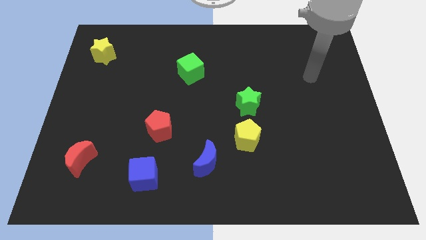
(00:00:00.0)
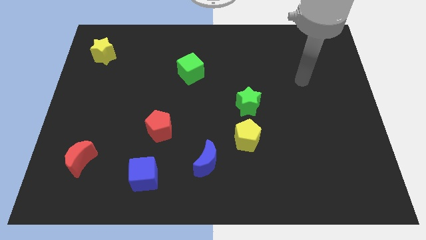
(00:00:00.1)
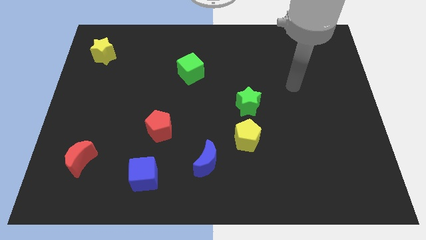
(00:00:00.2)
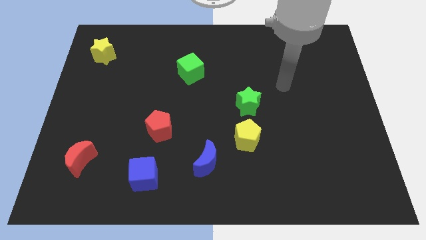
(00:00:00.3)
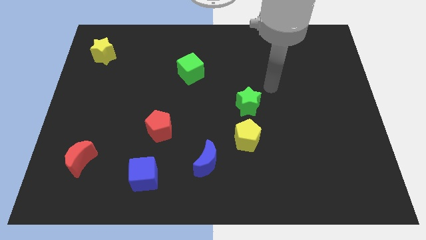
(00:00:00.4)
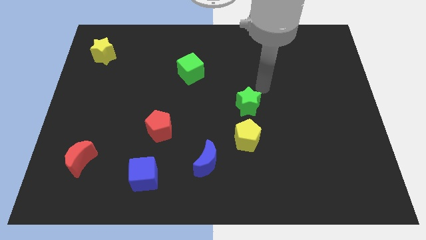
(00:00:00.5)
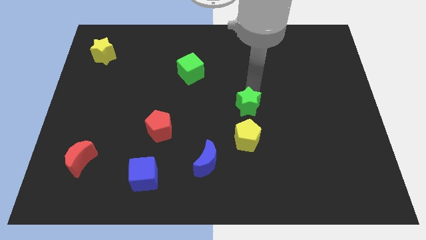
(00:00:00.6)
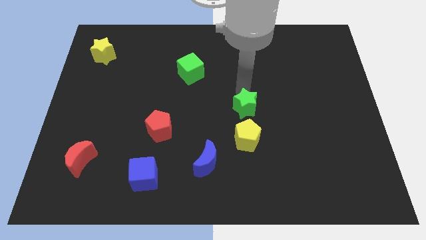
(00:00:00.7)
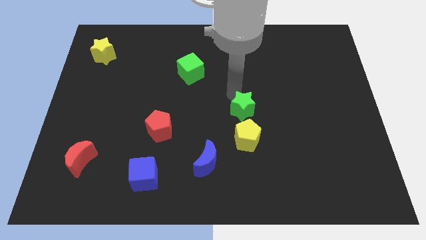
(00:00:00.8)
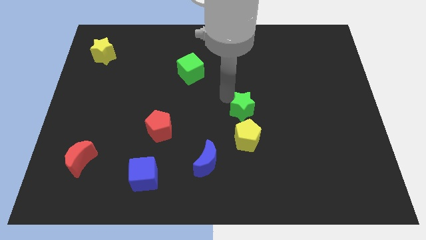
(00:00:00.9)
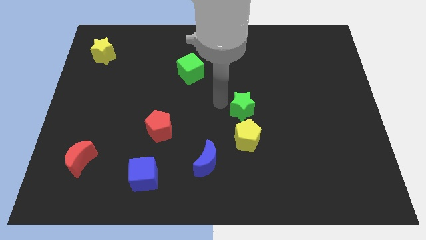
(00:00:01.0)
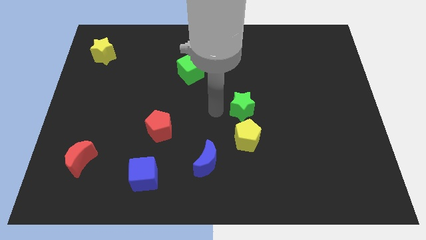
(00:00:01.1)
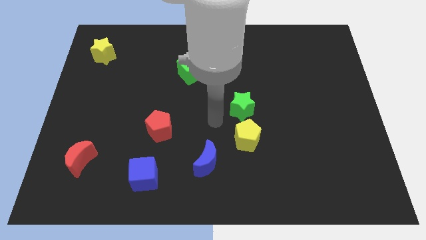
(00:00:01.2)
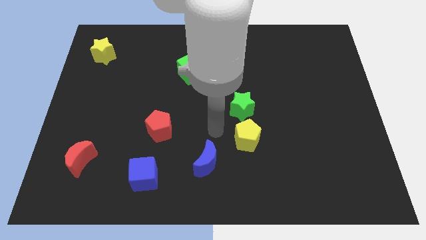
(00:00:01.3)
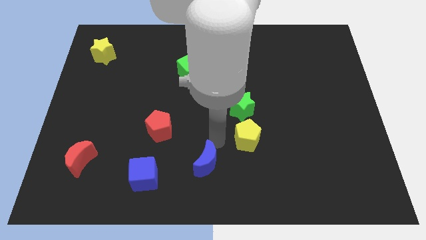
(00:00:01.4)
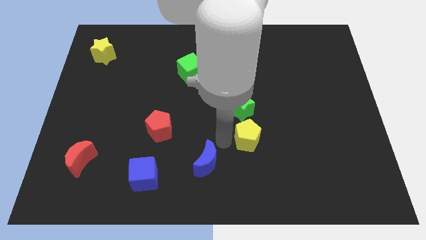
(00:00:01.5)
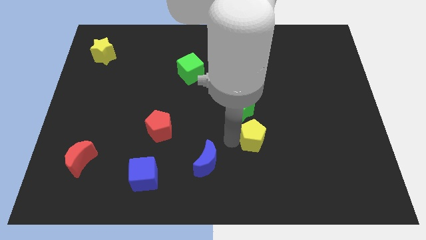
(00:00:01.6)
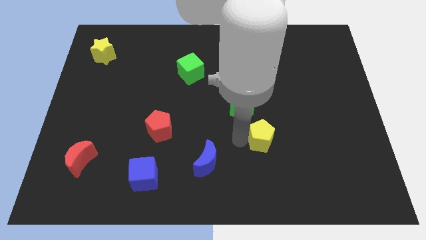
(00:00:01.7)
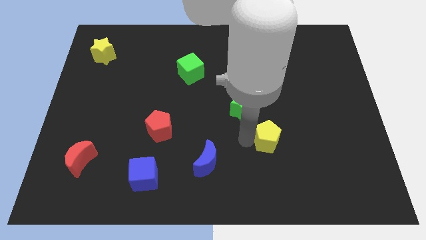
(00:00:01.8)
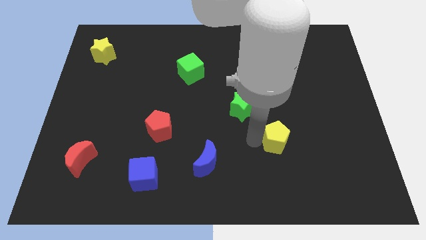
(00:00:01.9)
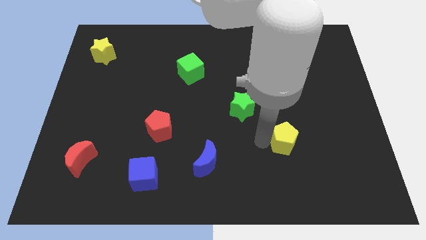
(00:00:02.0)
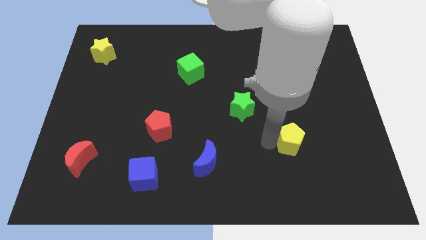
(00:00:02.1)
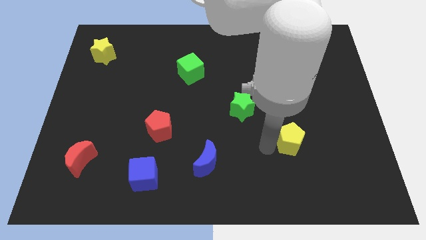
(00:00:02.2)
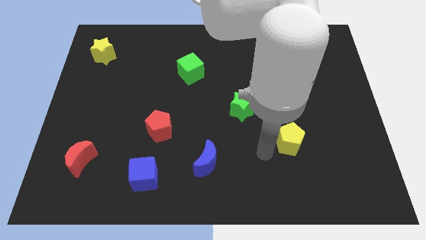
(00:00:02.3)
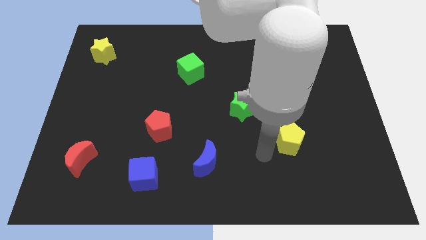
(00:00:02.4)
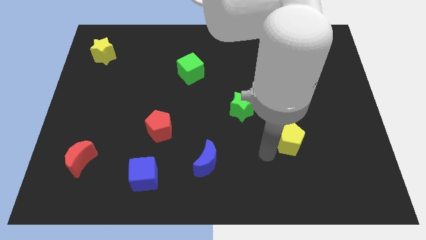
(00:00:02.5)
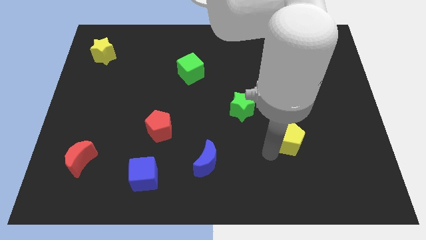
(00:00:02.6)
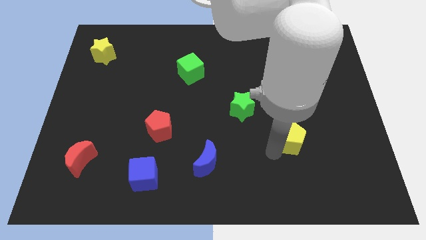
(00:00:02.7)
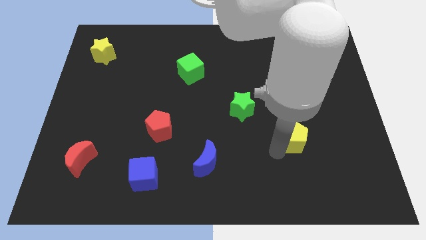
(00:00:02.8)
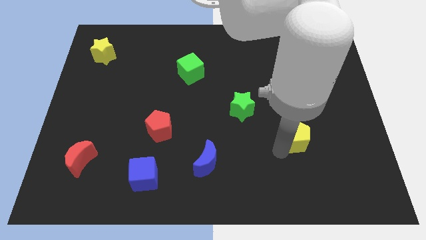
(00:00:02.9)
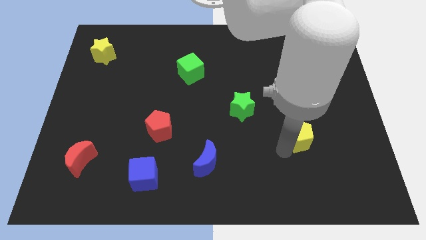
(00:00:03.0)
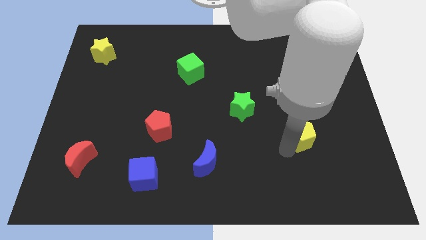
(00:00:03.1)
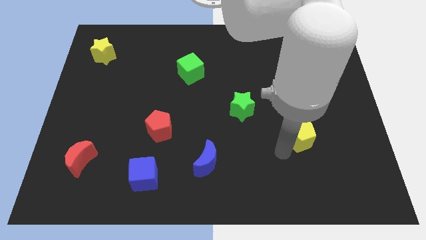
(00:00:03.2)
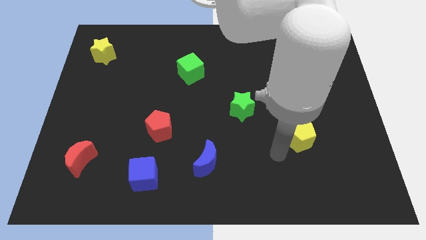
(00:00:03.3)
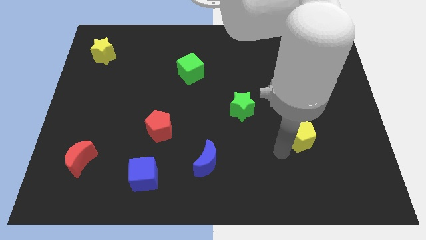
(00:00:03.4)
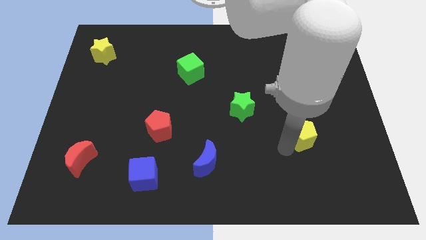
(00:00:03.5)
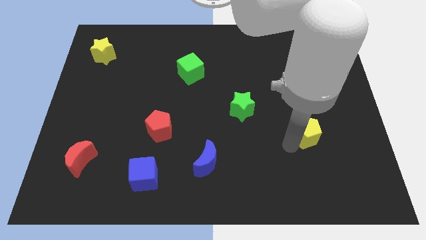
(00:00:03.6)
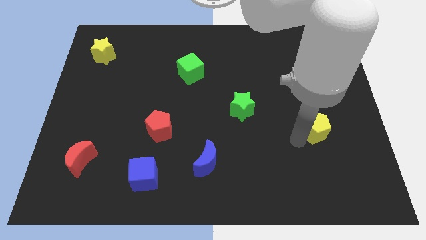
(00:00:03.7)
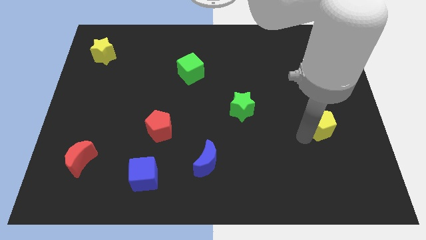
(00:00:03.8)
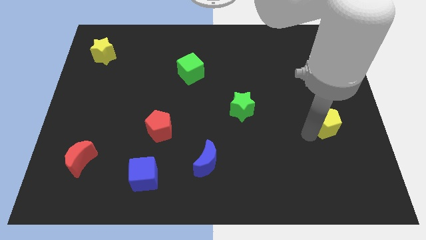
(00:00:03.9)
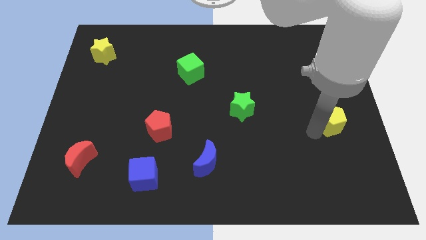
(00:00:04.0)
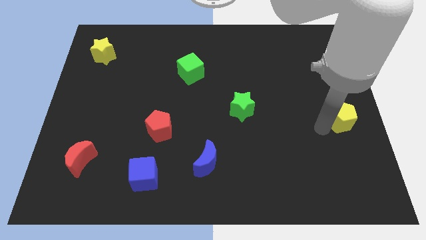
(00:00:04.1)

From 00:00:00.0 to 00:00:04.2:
move the yellow pentagon to the right side

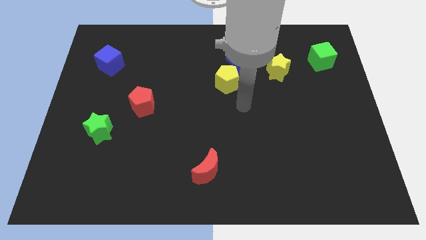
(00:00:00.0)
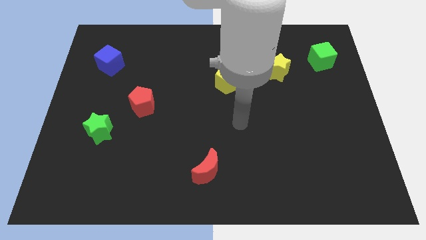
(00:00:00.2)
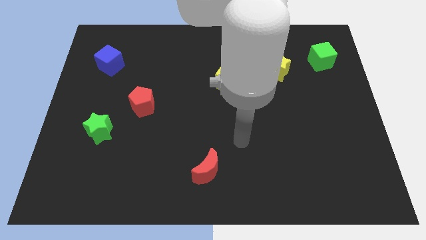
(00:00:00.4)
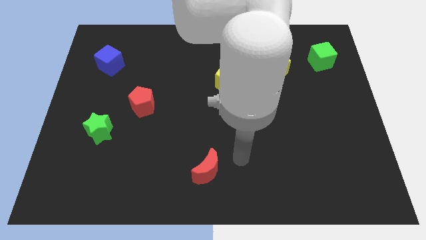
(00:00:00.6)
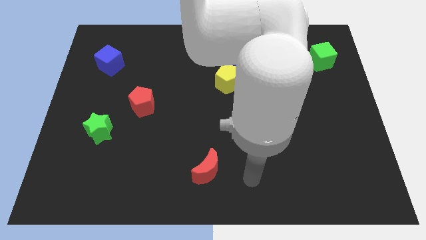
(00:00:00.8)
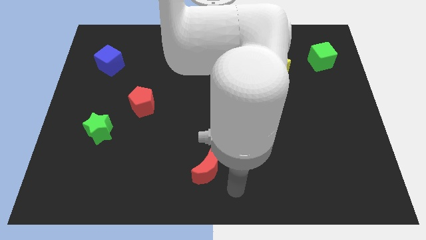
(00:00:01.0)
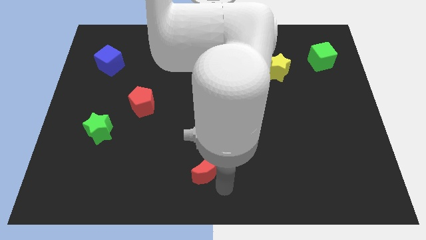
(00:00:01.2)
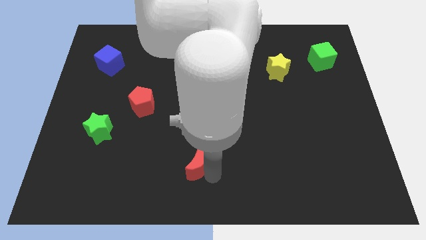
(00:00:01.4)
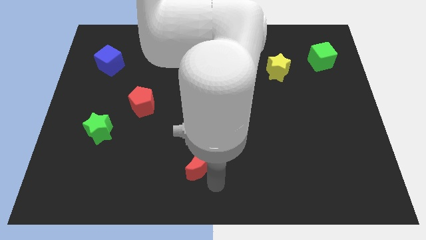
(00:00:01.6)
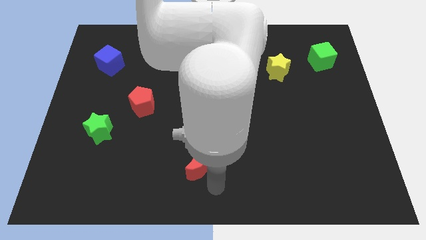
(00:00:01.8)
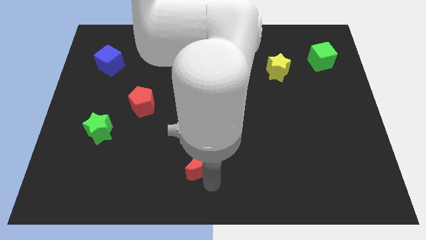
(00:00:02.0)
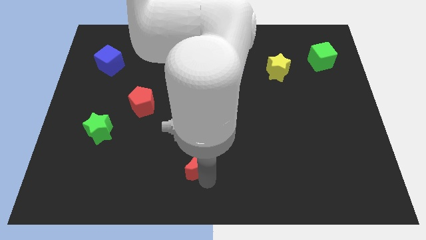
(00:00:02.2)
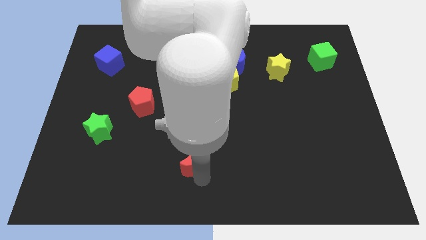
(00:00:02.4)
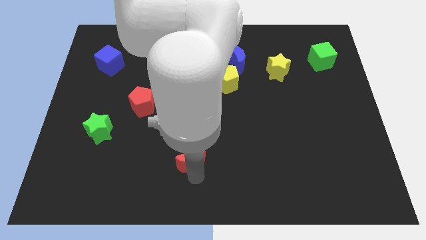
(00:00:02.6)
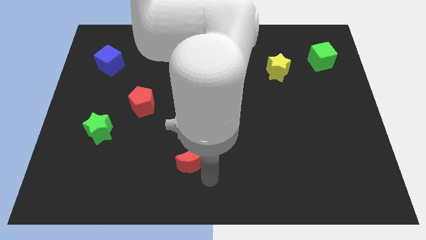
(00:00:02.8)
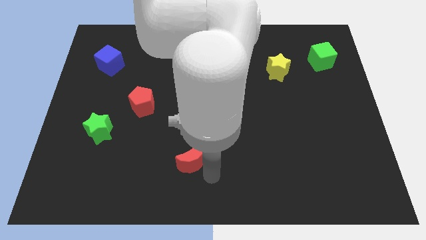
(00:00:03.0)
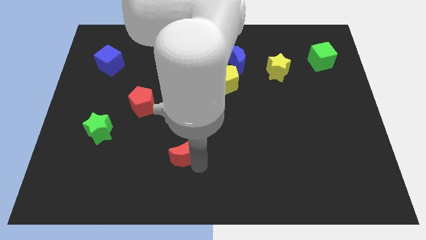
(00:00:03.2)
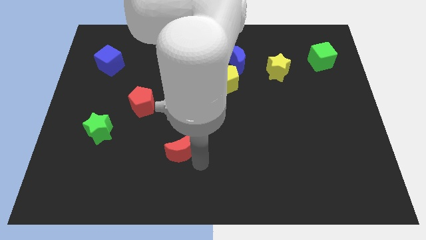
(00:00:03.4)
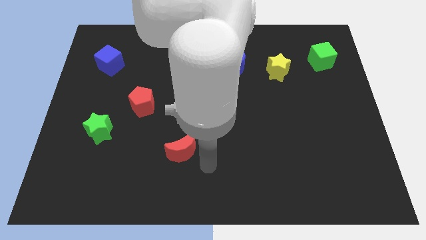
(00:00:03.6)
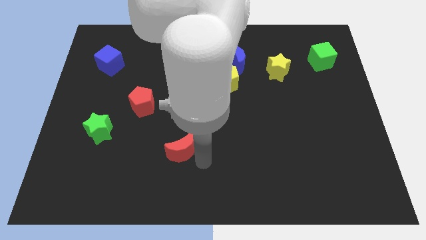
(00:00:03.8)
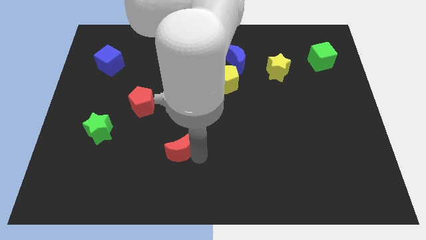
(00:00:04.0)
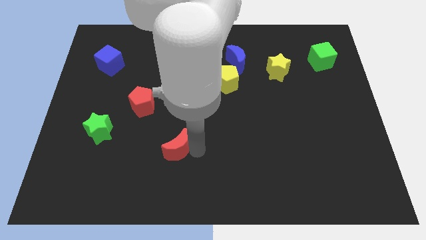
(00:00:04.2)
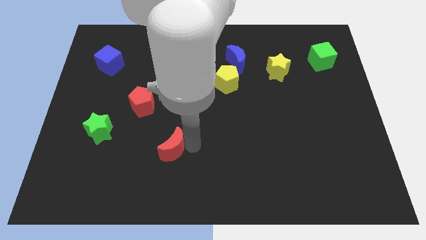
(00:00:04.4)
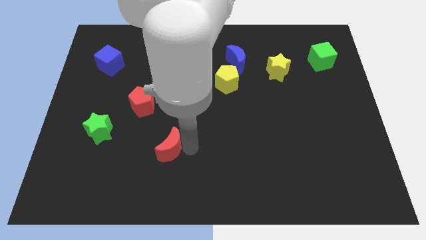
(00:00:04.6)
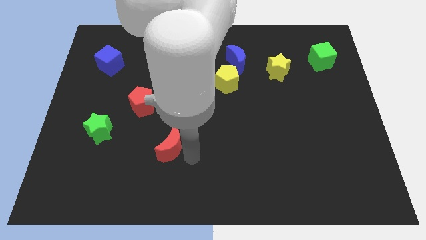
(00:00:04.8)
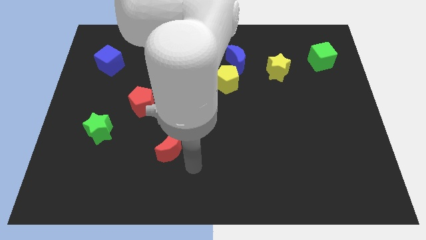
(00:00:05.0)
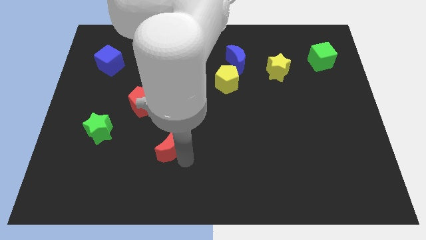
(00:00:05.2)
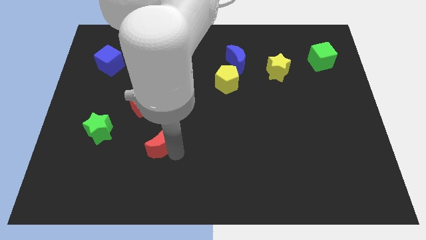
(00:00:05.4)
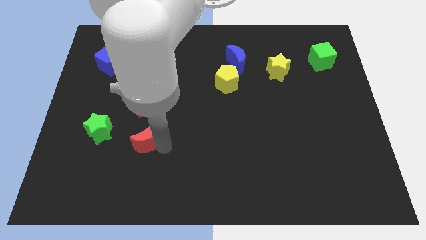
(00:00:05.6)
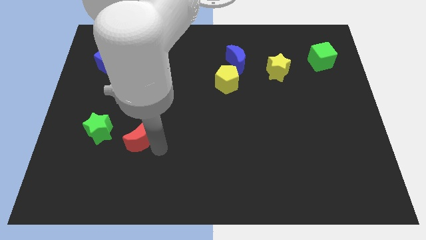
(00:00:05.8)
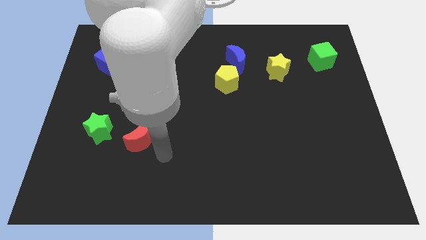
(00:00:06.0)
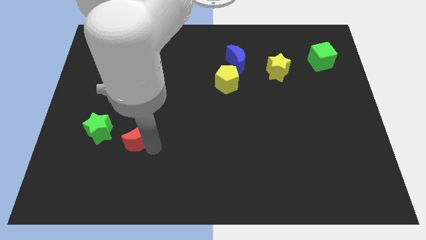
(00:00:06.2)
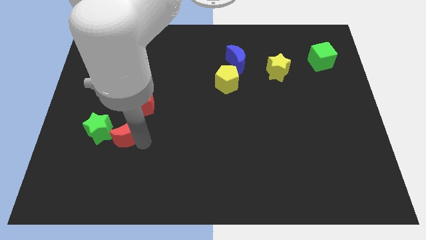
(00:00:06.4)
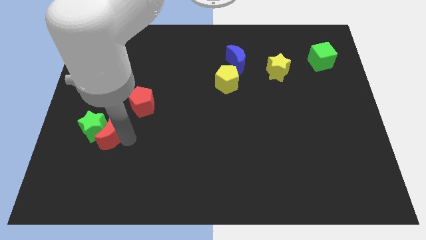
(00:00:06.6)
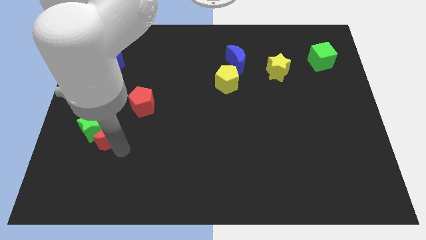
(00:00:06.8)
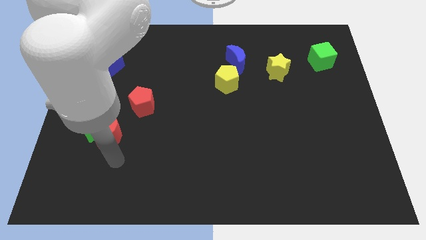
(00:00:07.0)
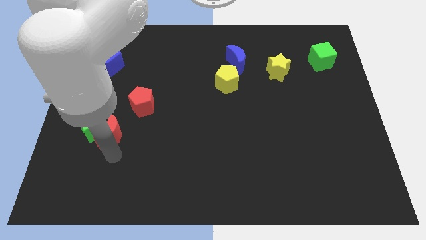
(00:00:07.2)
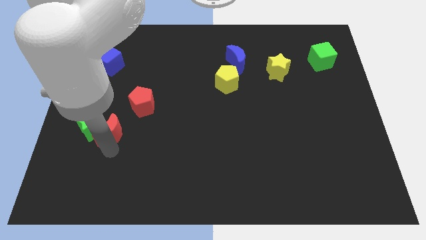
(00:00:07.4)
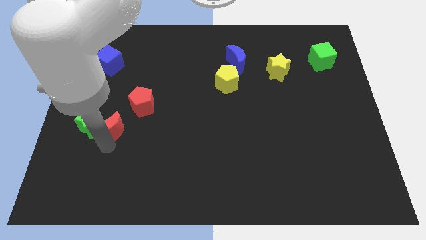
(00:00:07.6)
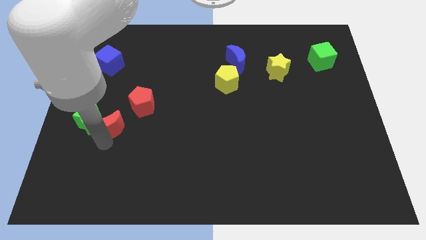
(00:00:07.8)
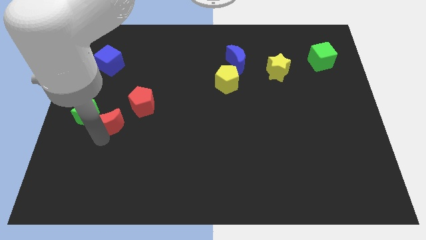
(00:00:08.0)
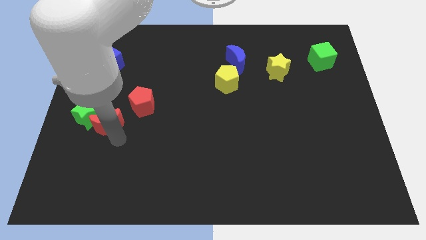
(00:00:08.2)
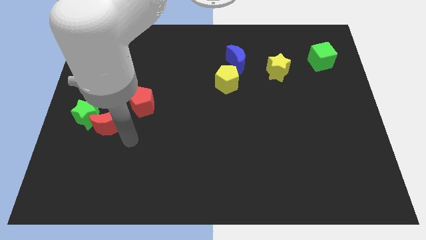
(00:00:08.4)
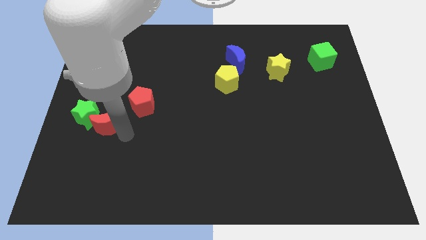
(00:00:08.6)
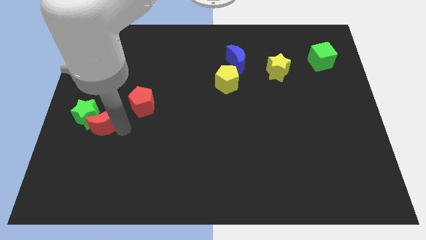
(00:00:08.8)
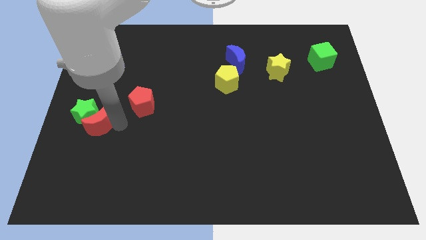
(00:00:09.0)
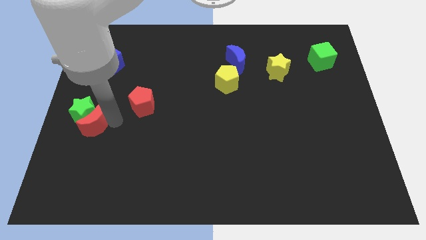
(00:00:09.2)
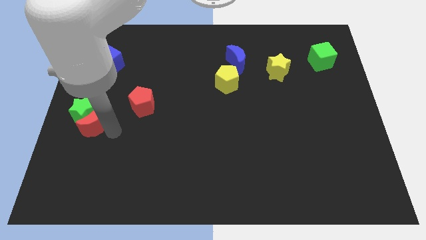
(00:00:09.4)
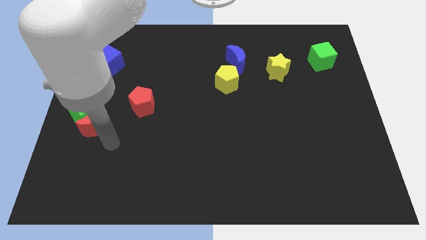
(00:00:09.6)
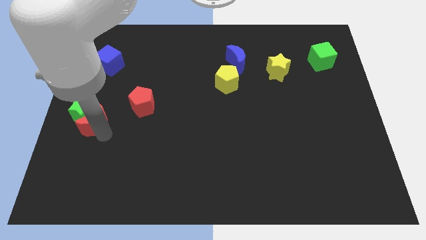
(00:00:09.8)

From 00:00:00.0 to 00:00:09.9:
put the red moon to the left side of the board
